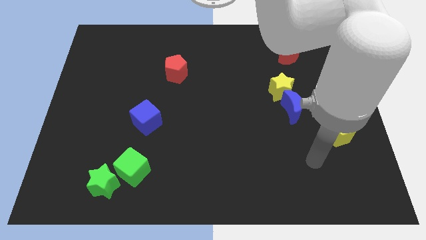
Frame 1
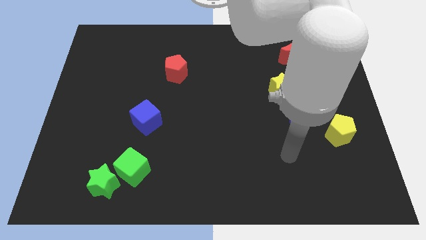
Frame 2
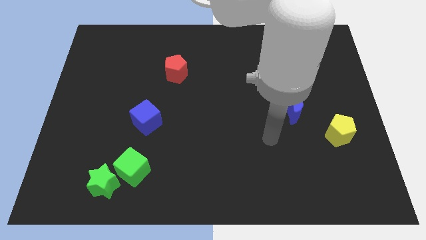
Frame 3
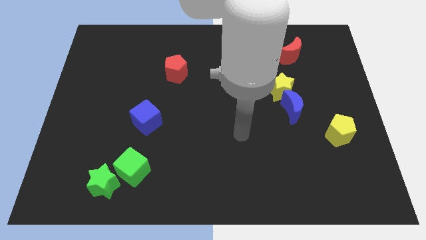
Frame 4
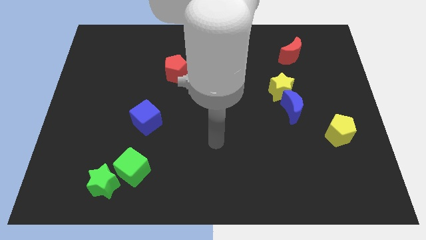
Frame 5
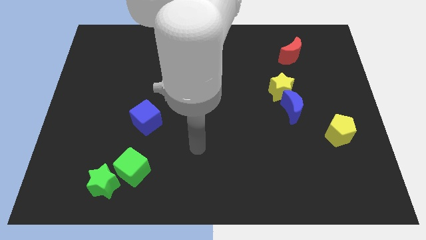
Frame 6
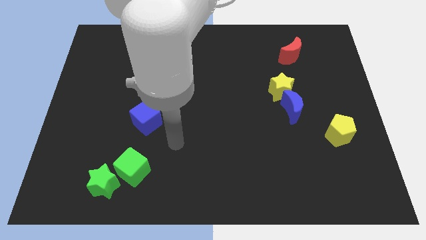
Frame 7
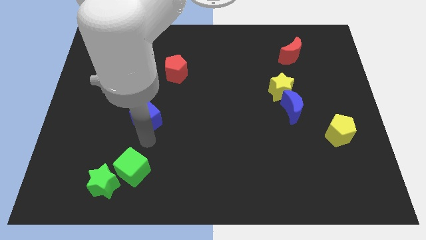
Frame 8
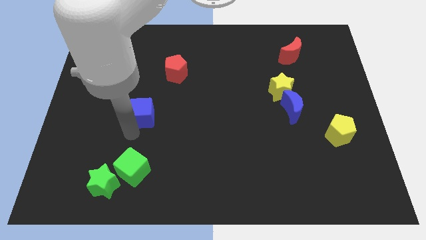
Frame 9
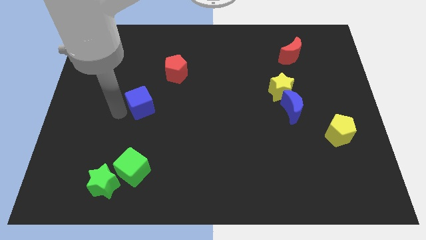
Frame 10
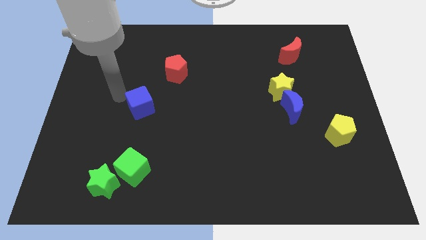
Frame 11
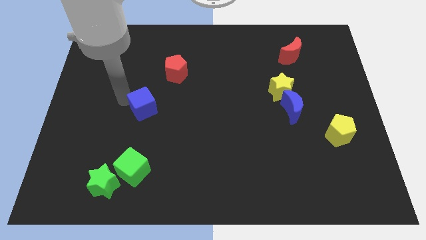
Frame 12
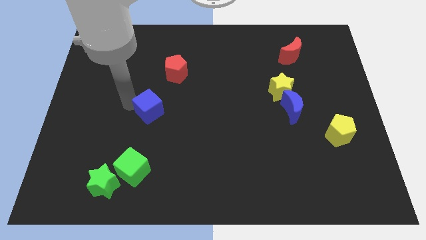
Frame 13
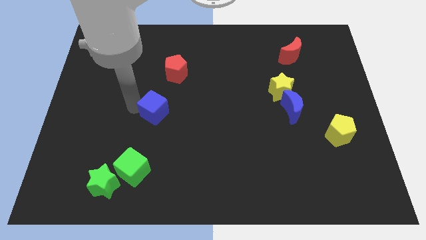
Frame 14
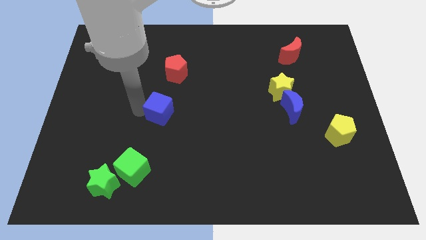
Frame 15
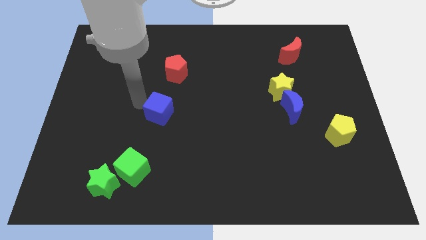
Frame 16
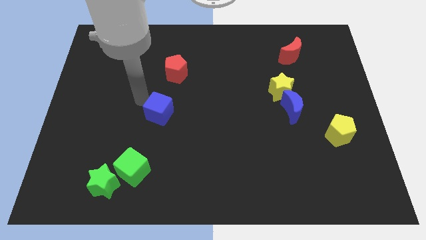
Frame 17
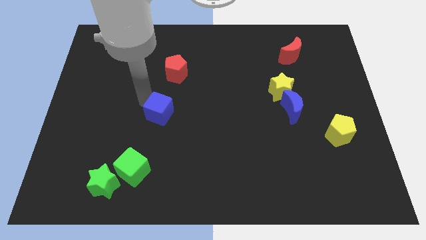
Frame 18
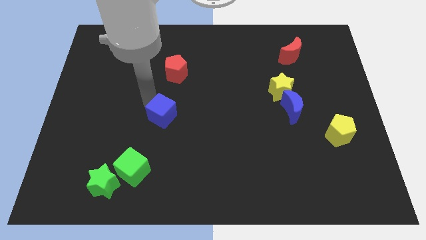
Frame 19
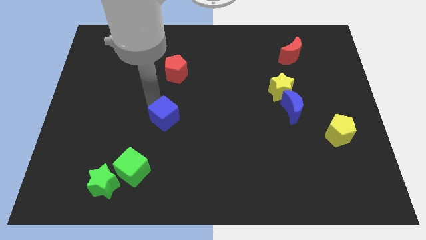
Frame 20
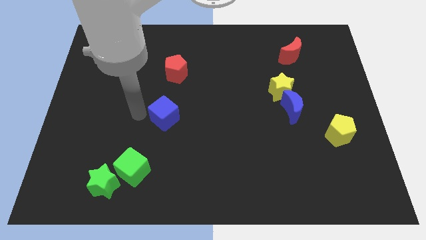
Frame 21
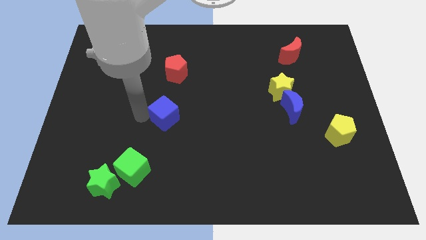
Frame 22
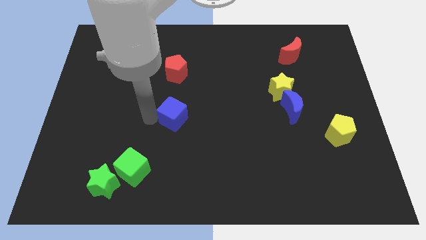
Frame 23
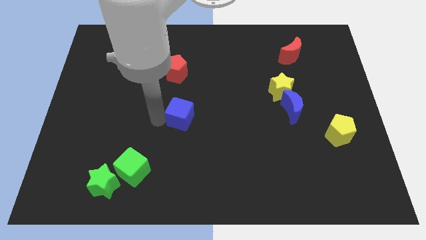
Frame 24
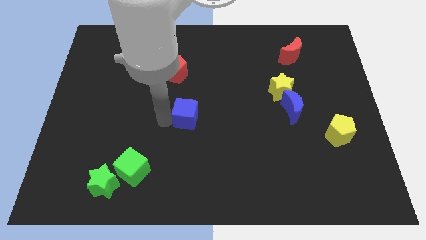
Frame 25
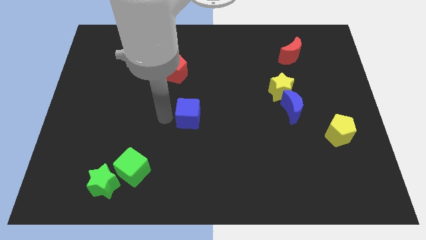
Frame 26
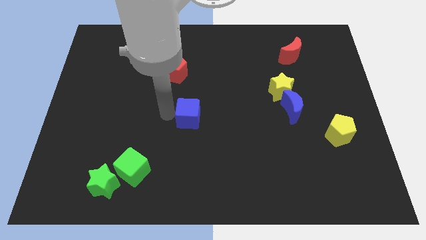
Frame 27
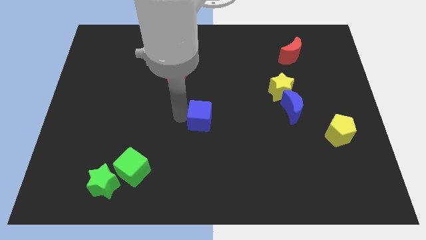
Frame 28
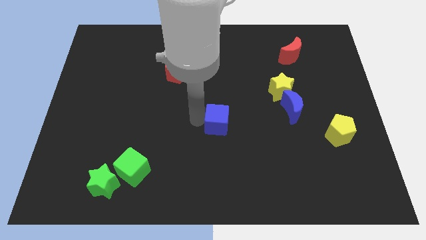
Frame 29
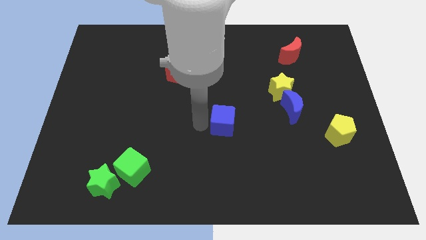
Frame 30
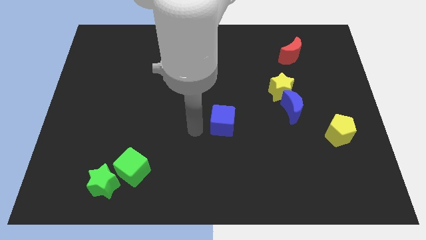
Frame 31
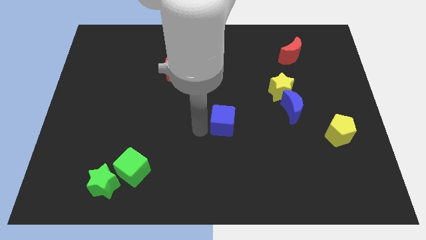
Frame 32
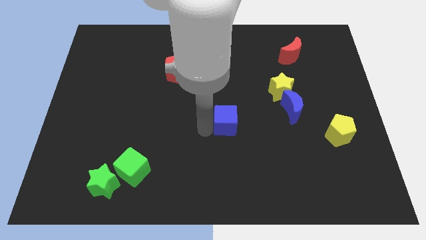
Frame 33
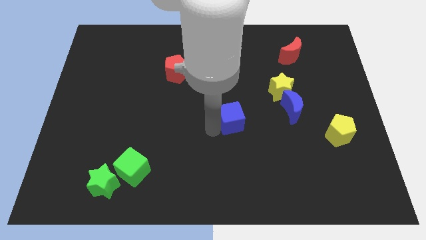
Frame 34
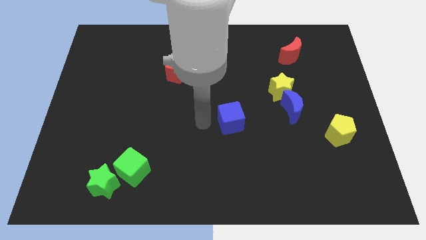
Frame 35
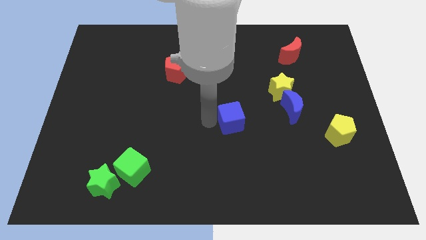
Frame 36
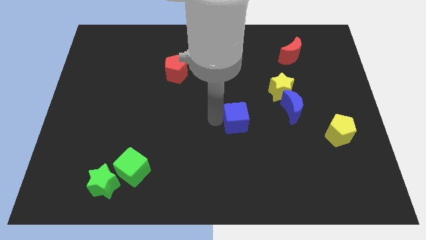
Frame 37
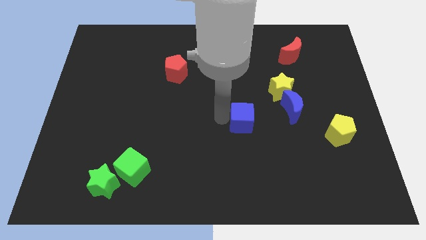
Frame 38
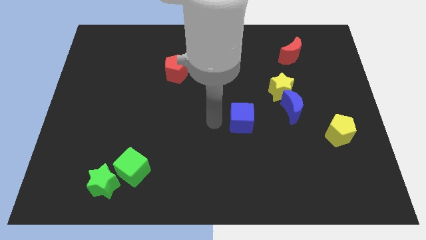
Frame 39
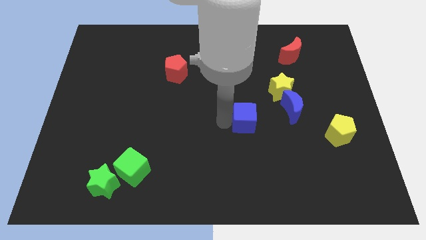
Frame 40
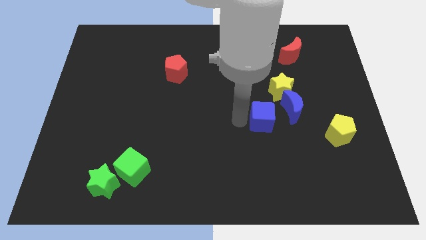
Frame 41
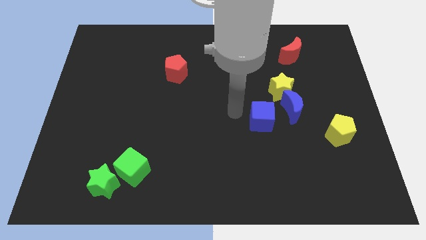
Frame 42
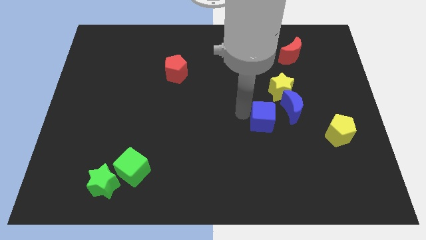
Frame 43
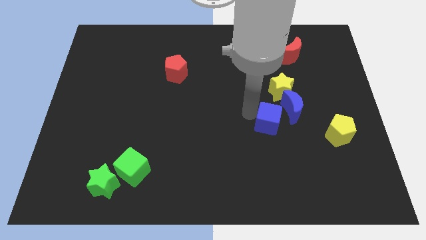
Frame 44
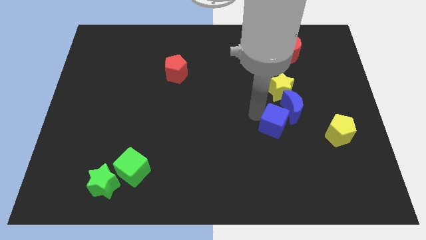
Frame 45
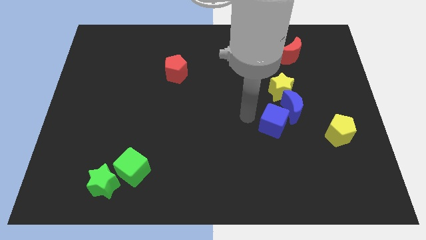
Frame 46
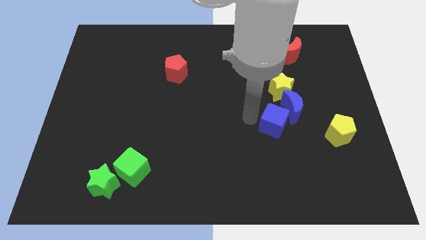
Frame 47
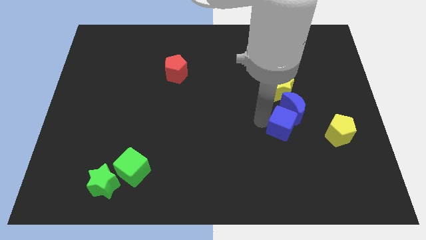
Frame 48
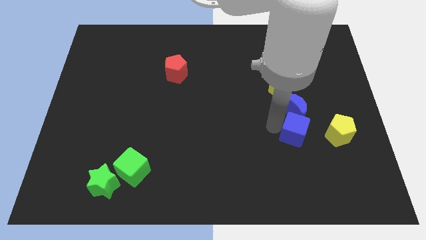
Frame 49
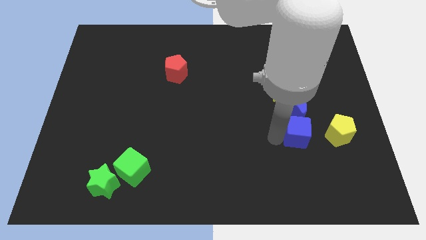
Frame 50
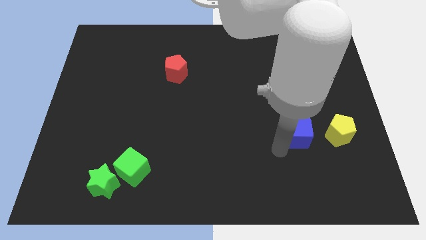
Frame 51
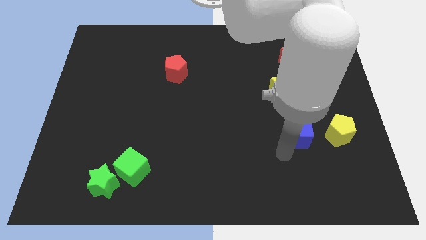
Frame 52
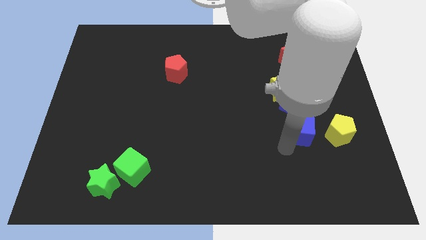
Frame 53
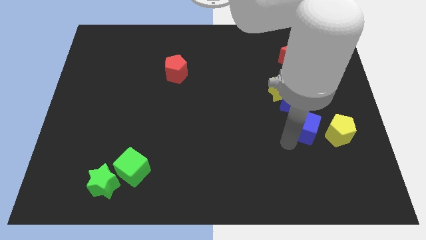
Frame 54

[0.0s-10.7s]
put the blue cube diagonally up and to the left of the yellow pentagon

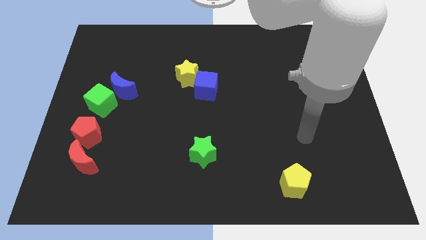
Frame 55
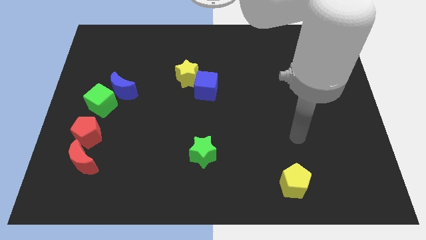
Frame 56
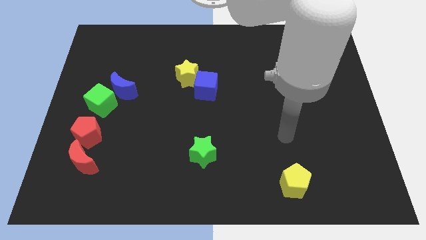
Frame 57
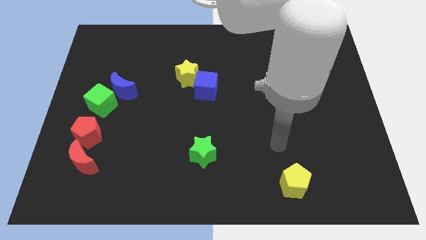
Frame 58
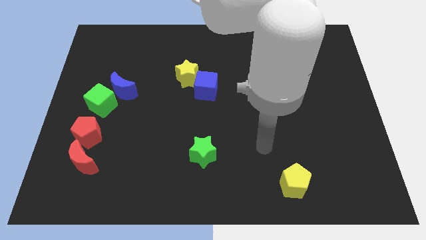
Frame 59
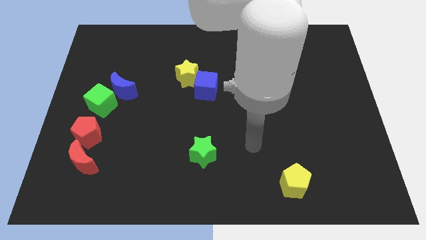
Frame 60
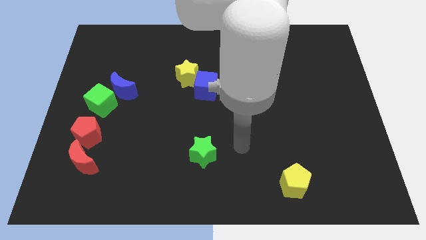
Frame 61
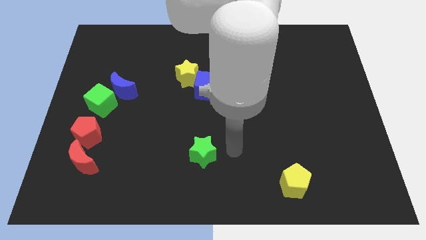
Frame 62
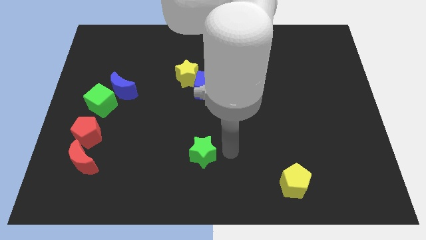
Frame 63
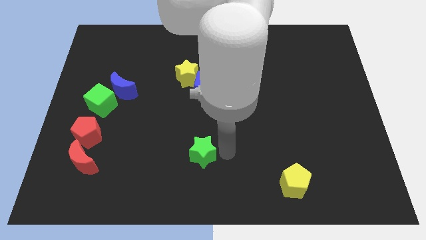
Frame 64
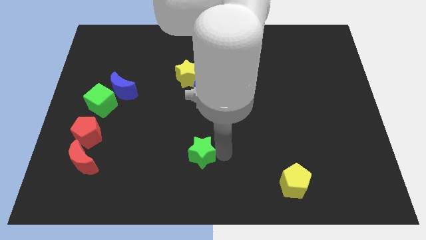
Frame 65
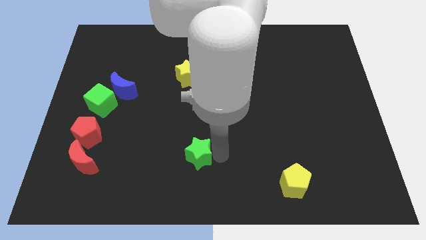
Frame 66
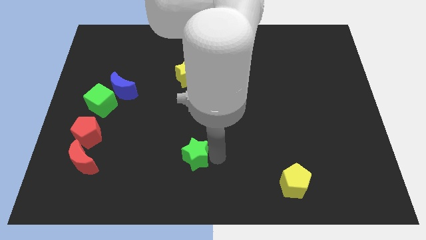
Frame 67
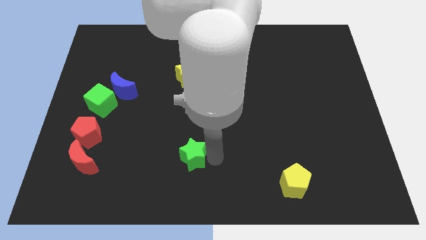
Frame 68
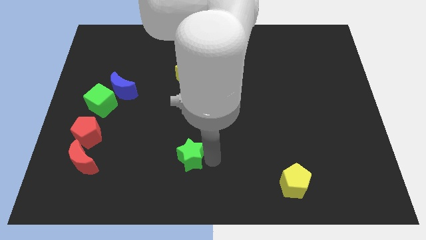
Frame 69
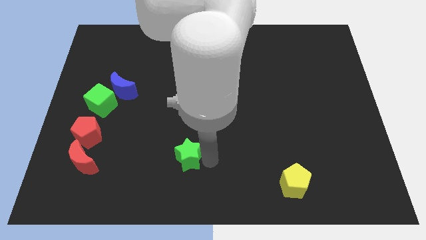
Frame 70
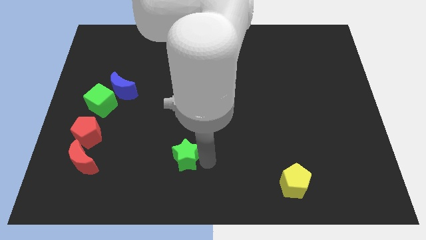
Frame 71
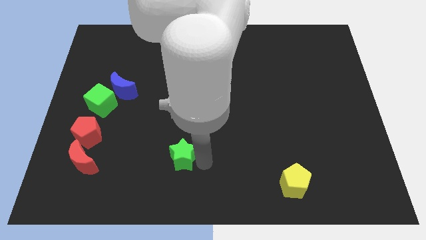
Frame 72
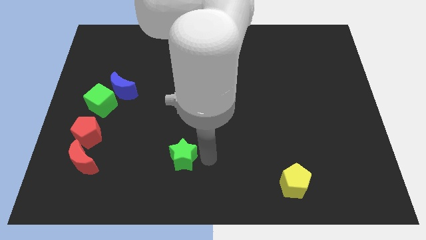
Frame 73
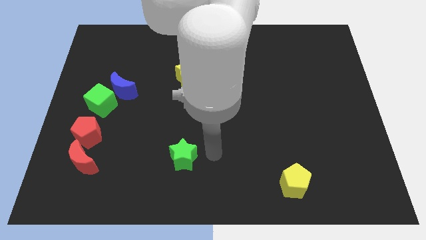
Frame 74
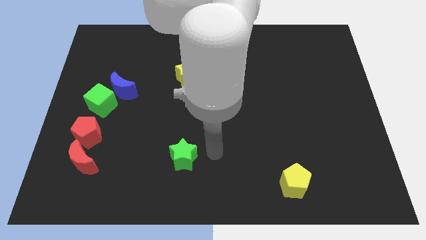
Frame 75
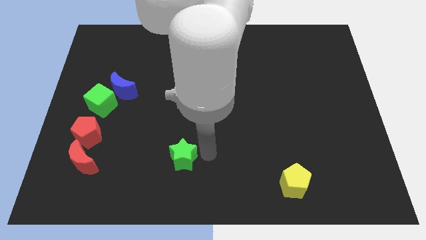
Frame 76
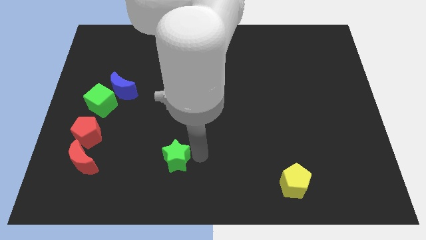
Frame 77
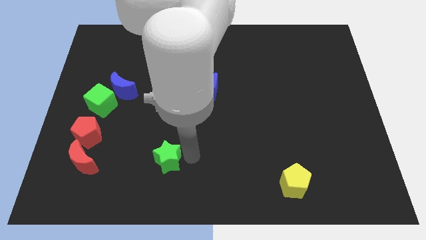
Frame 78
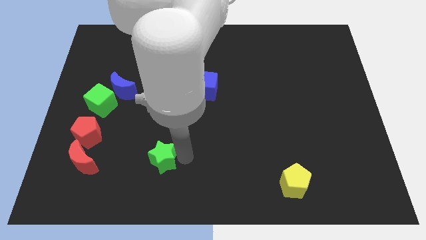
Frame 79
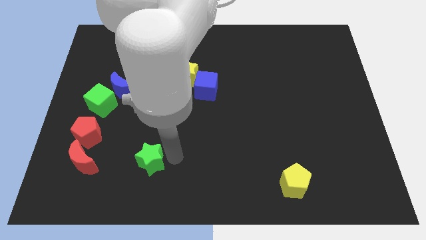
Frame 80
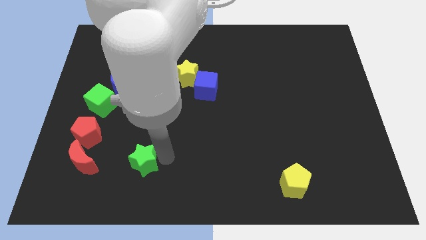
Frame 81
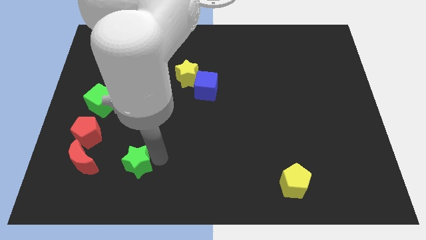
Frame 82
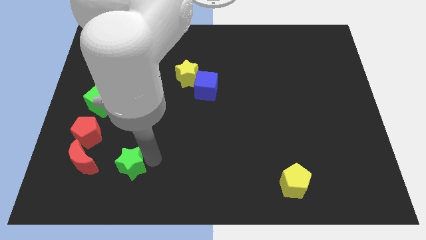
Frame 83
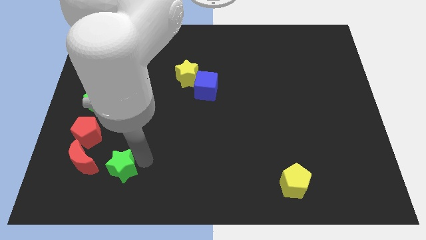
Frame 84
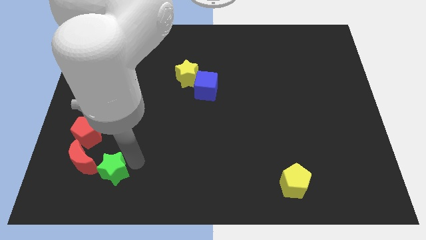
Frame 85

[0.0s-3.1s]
move the green star to the bottom right of the red moon
